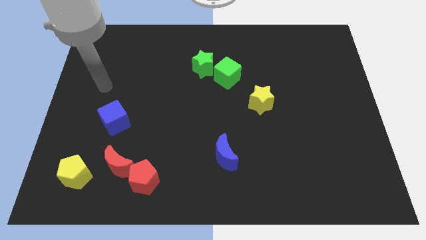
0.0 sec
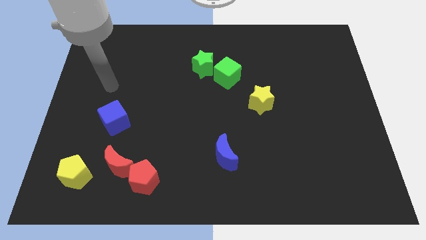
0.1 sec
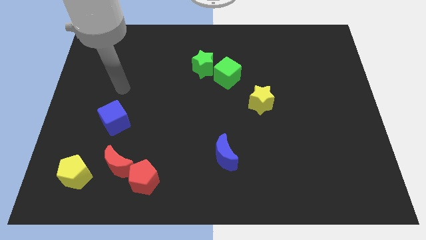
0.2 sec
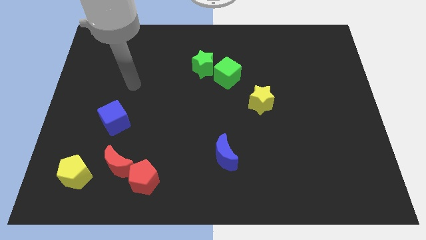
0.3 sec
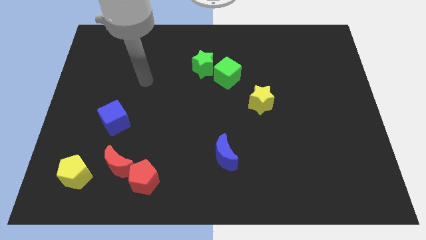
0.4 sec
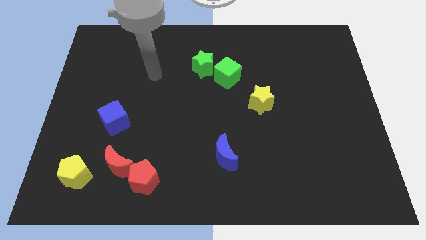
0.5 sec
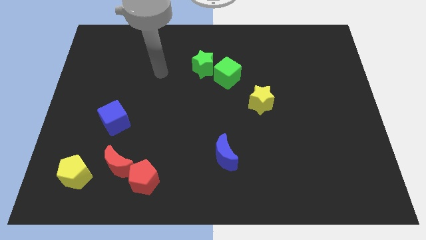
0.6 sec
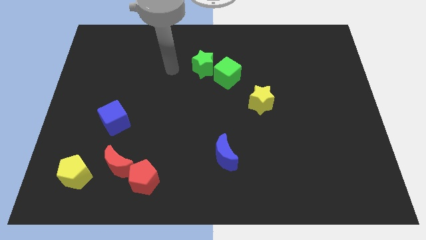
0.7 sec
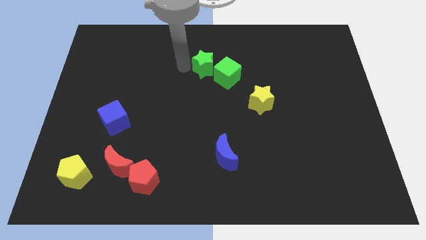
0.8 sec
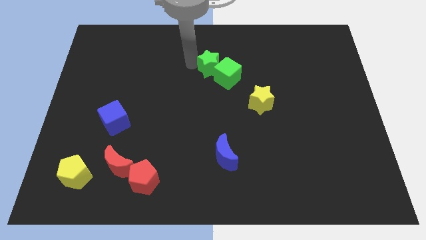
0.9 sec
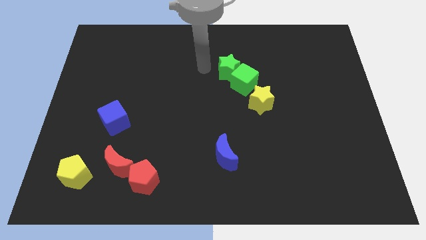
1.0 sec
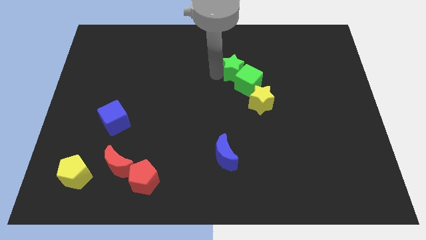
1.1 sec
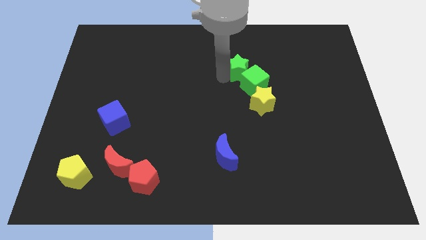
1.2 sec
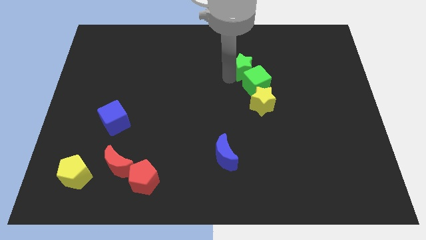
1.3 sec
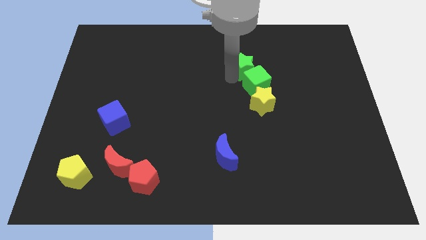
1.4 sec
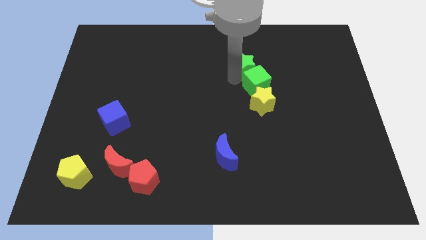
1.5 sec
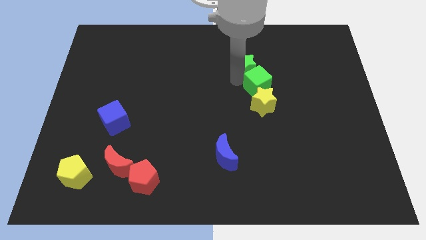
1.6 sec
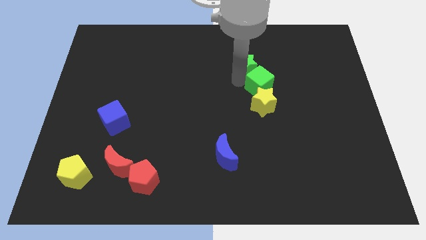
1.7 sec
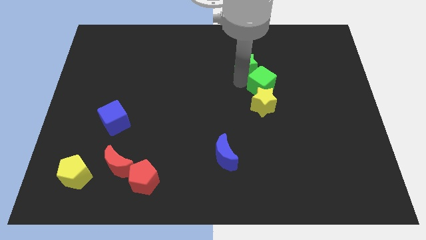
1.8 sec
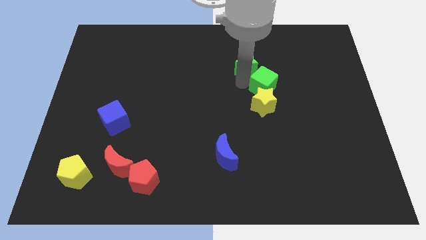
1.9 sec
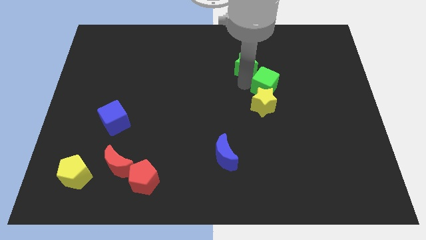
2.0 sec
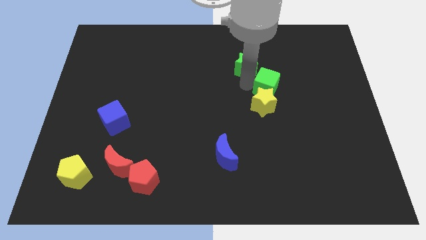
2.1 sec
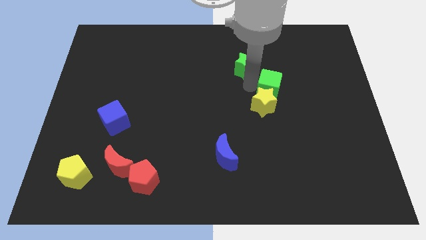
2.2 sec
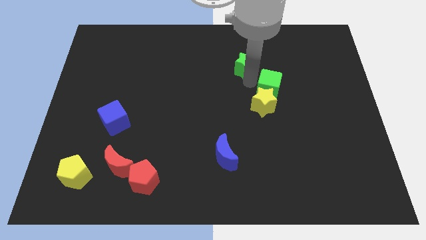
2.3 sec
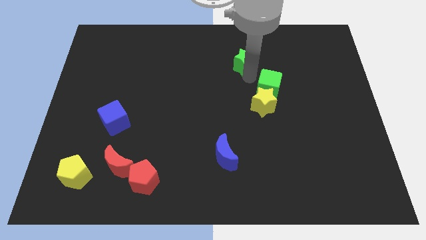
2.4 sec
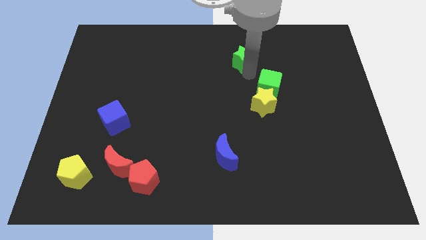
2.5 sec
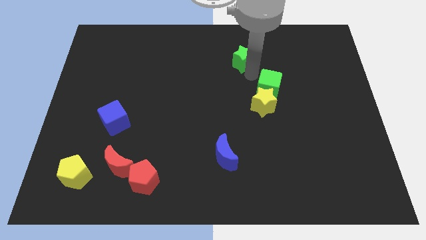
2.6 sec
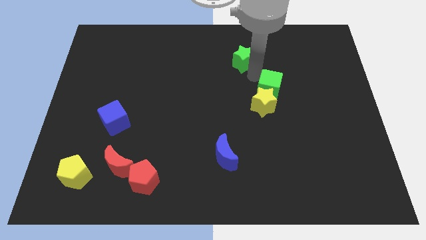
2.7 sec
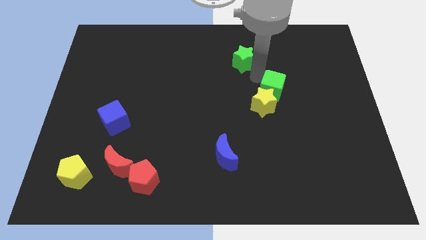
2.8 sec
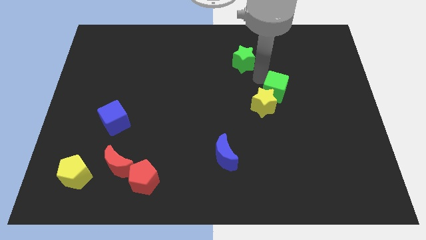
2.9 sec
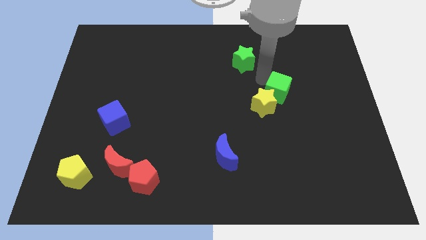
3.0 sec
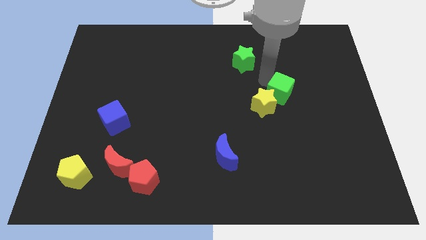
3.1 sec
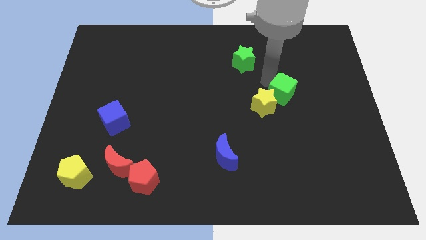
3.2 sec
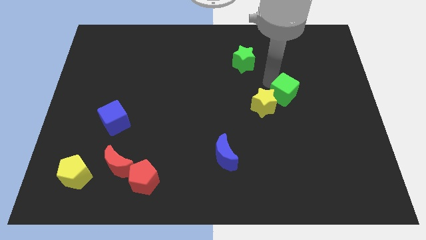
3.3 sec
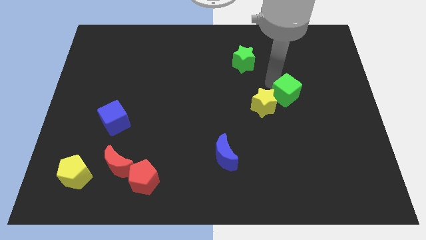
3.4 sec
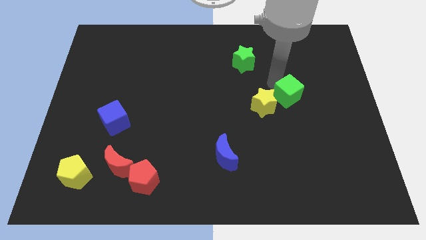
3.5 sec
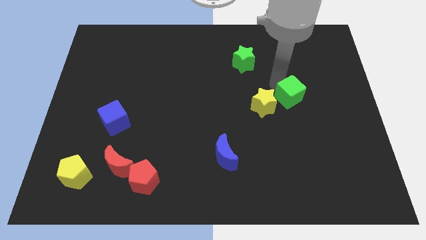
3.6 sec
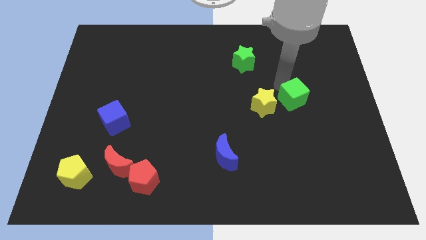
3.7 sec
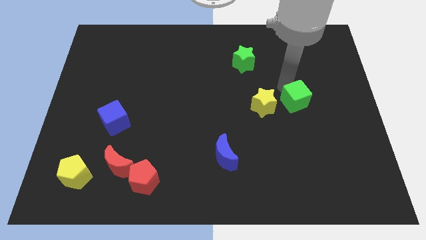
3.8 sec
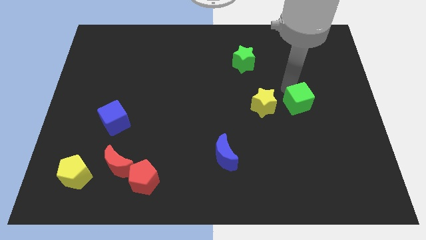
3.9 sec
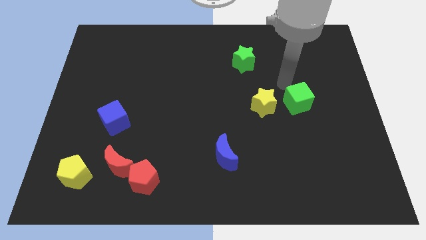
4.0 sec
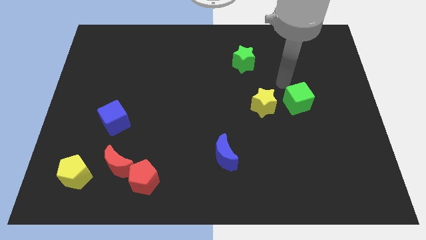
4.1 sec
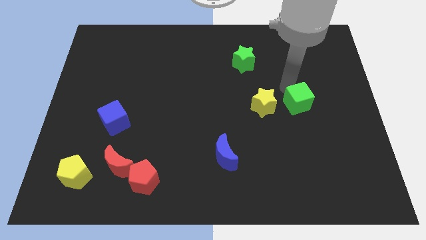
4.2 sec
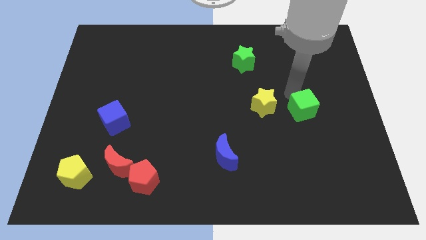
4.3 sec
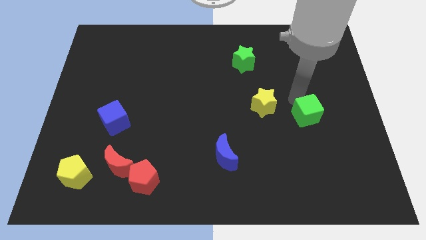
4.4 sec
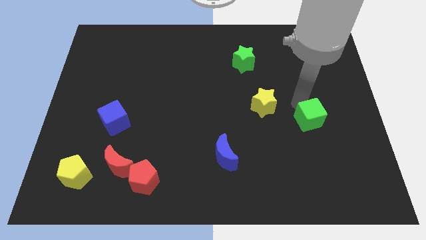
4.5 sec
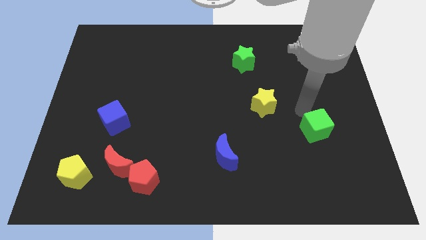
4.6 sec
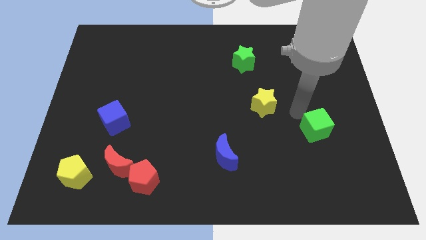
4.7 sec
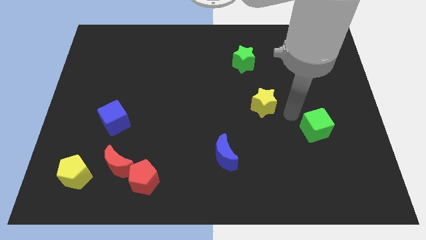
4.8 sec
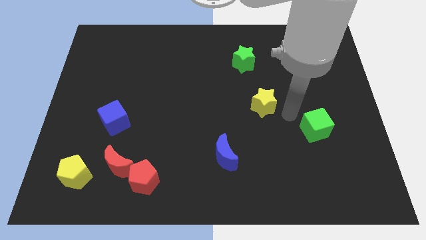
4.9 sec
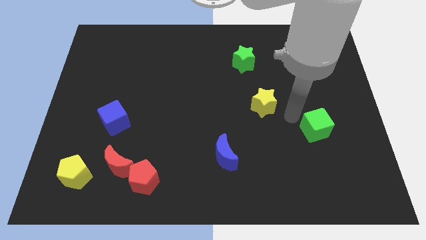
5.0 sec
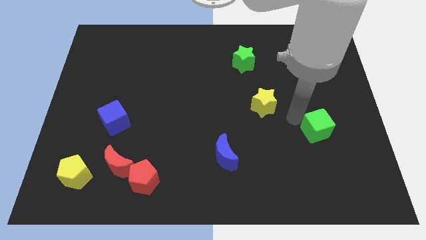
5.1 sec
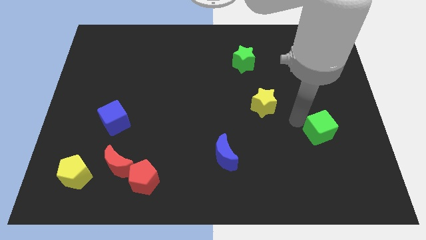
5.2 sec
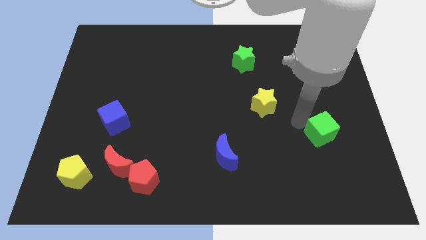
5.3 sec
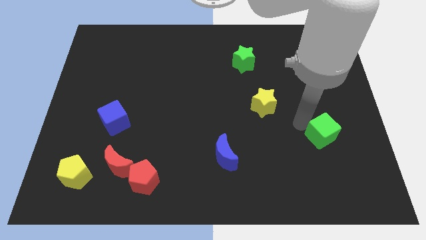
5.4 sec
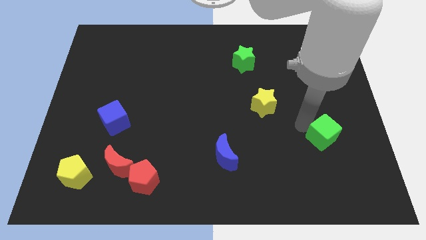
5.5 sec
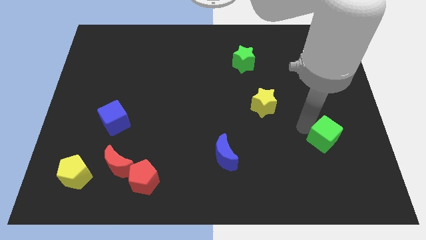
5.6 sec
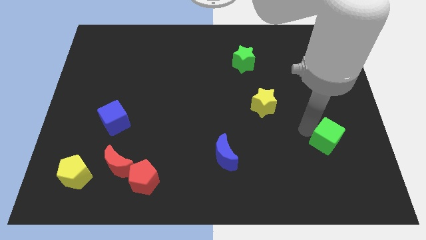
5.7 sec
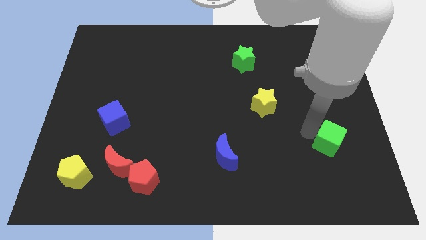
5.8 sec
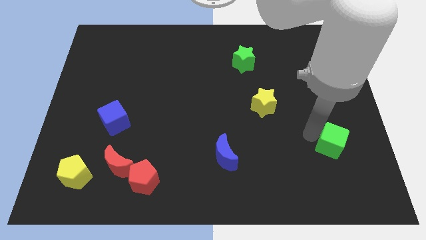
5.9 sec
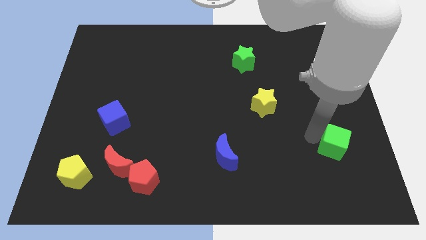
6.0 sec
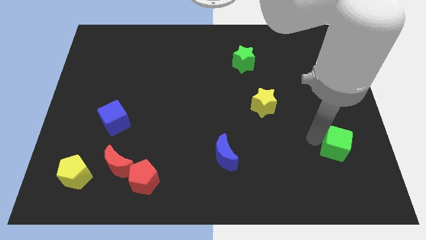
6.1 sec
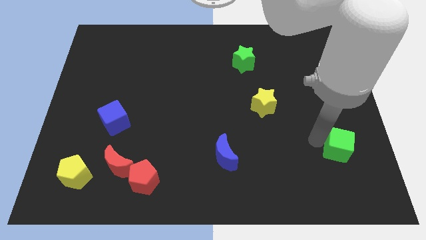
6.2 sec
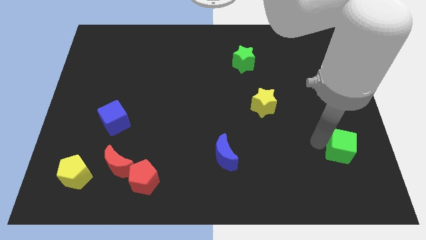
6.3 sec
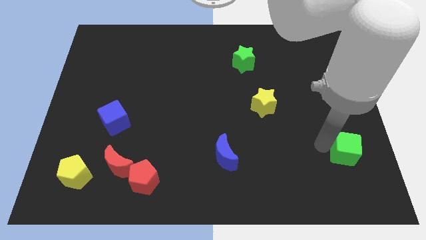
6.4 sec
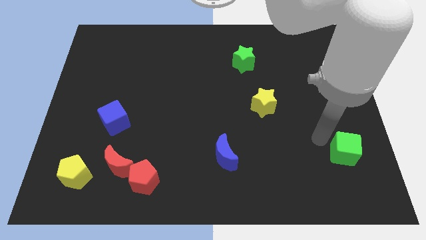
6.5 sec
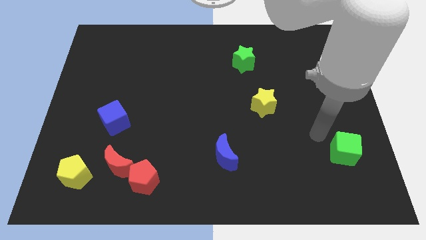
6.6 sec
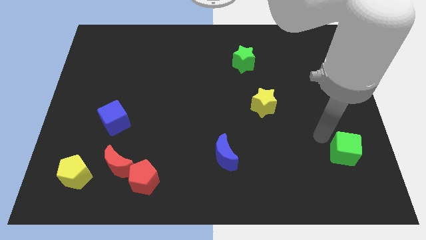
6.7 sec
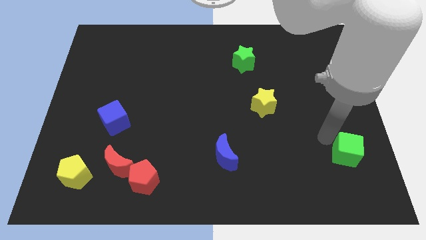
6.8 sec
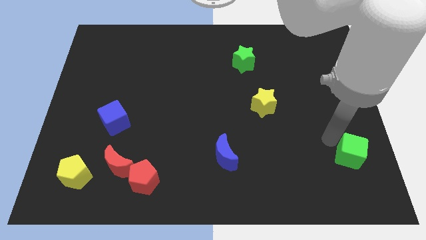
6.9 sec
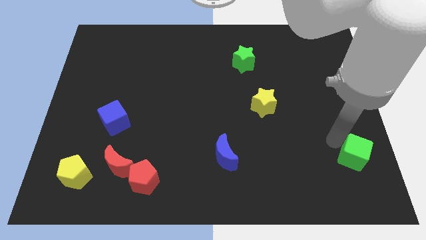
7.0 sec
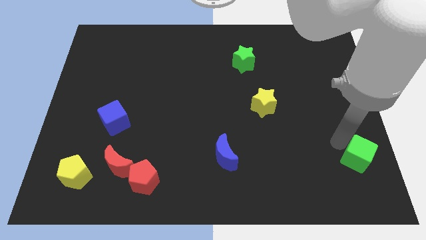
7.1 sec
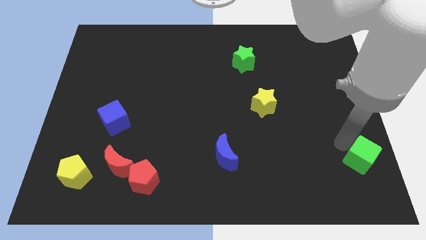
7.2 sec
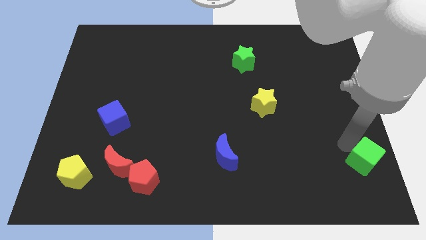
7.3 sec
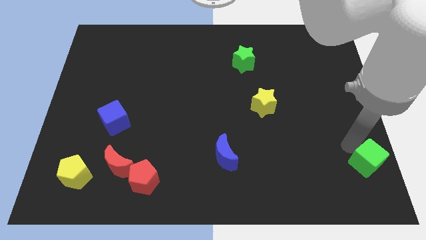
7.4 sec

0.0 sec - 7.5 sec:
slide the green cube to the lower right corner
